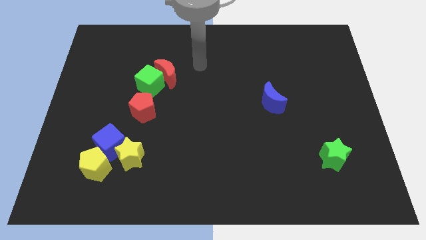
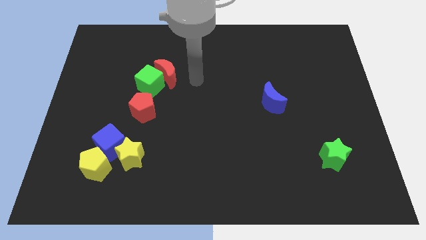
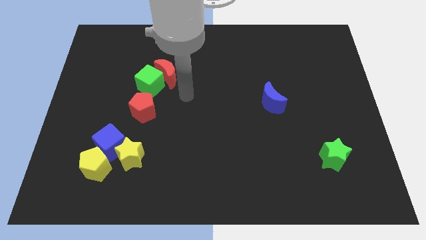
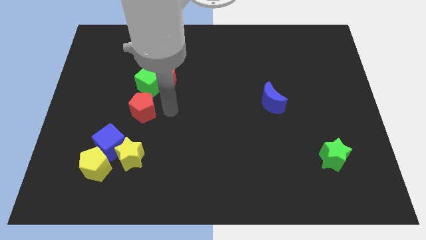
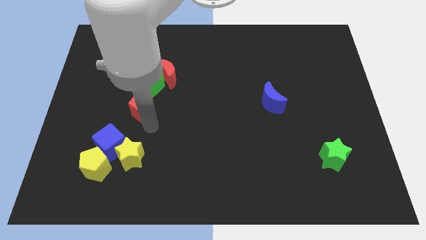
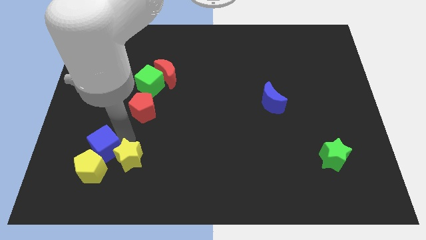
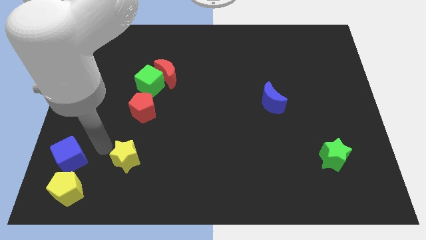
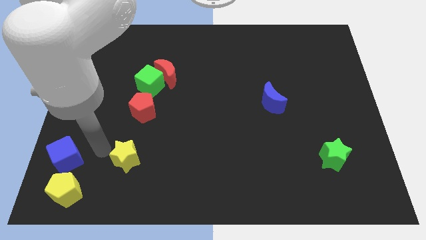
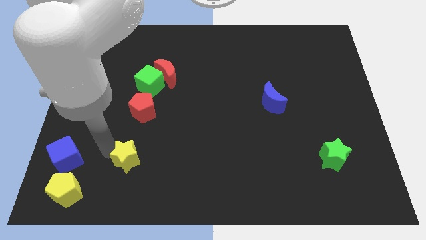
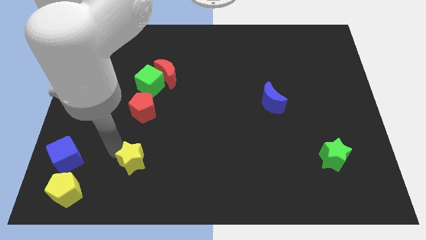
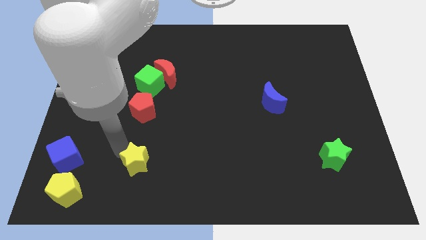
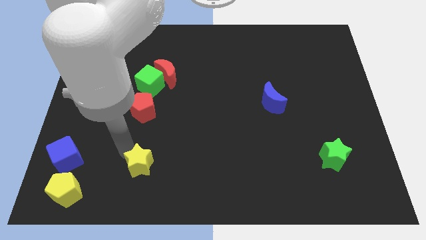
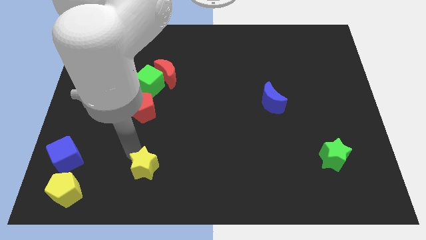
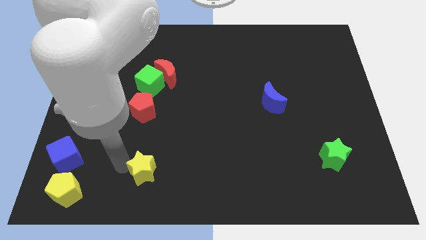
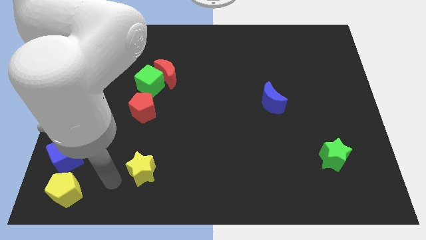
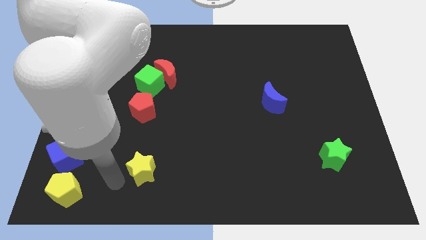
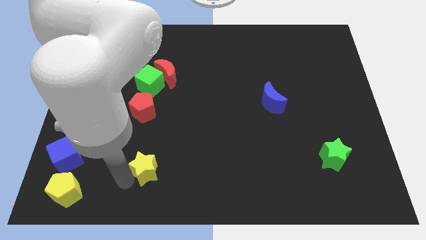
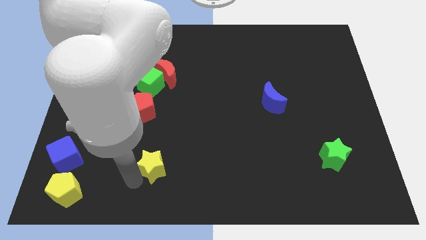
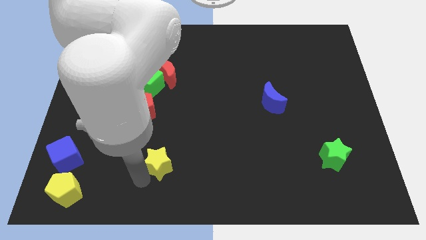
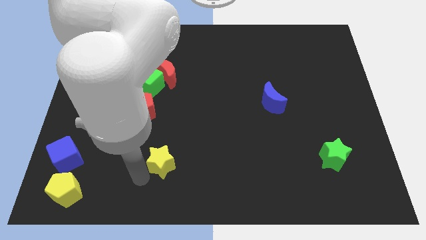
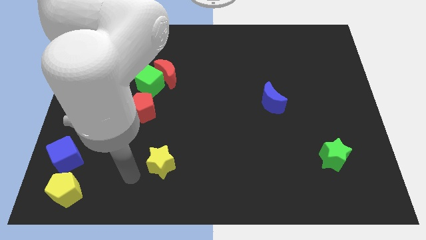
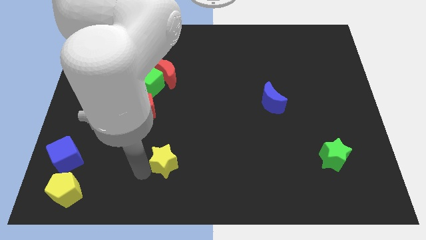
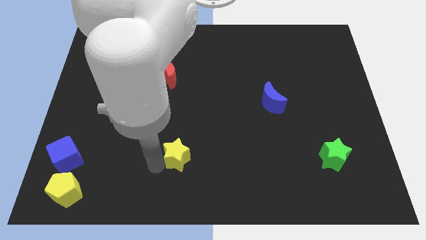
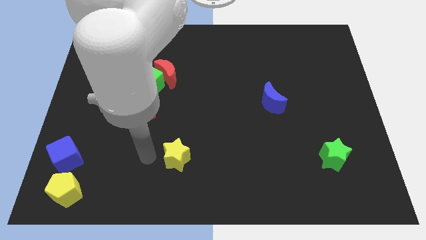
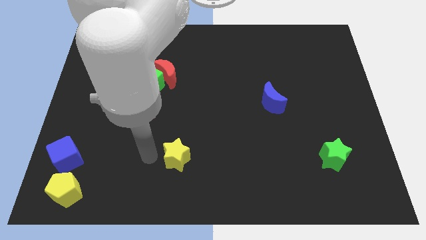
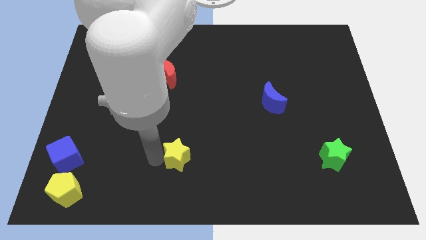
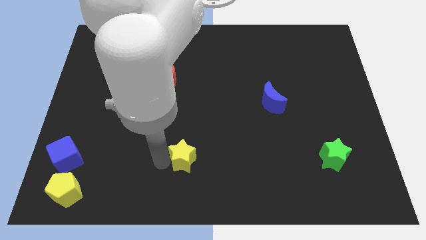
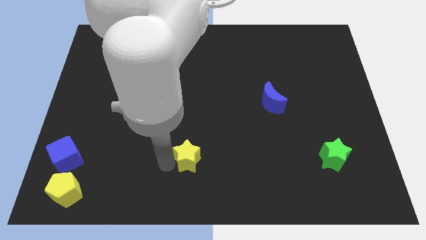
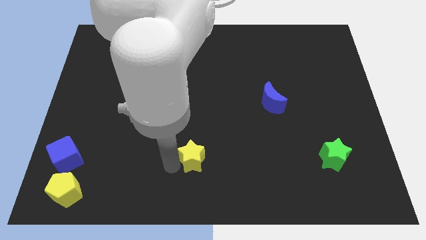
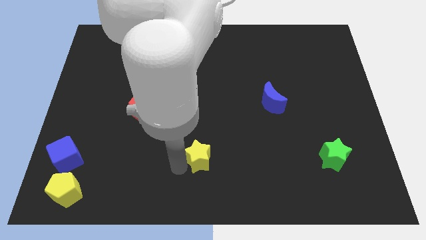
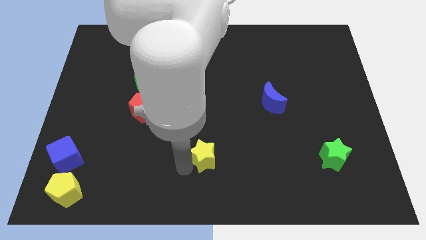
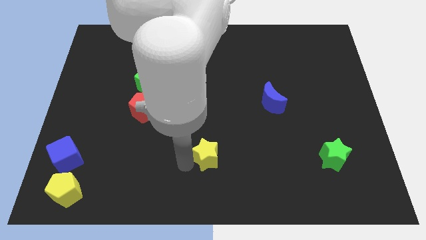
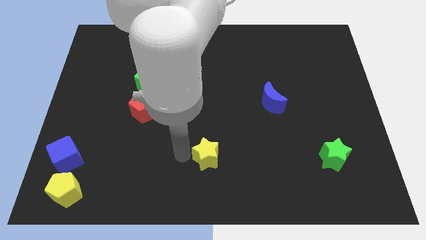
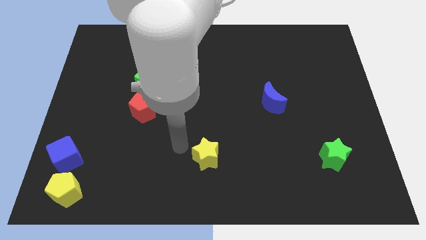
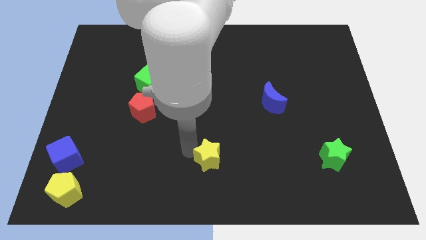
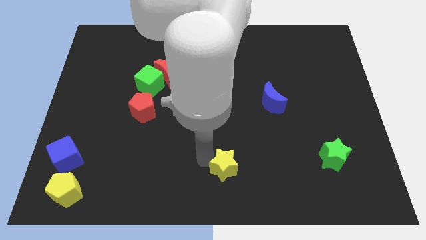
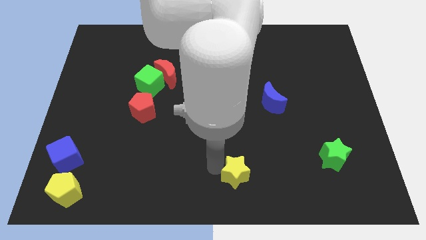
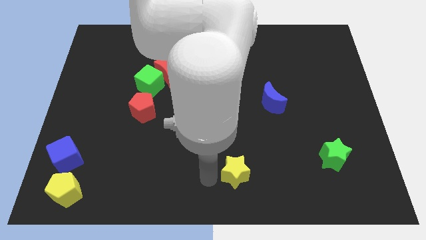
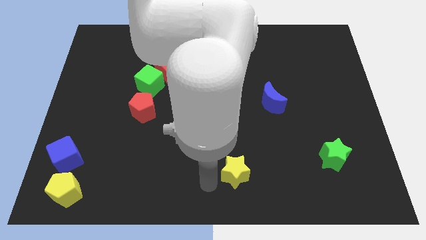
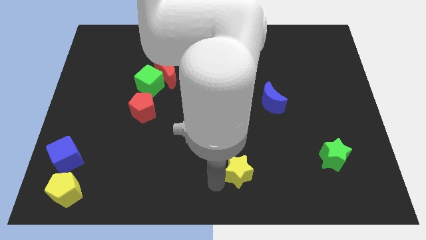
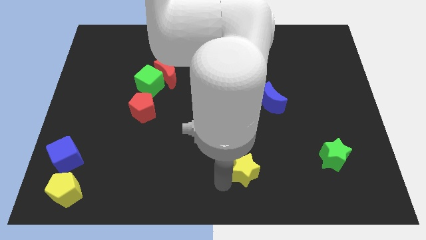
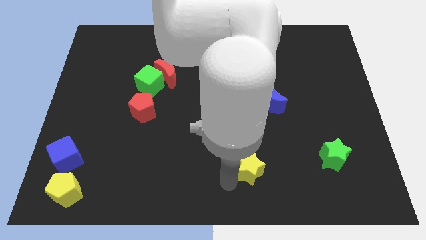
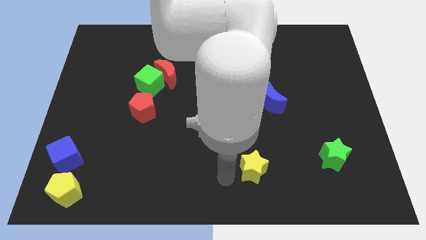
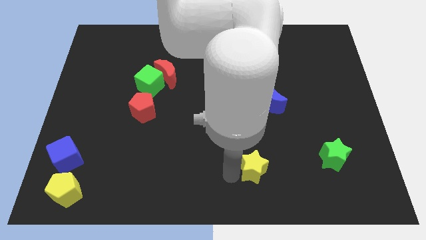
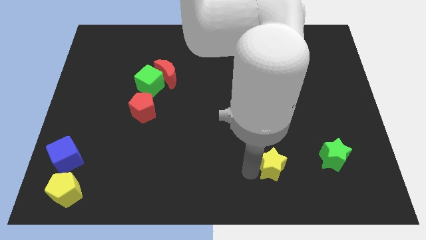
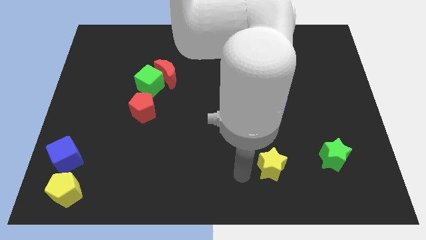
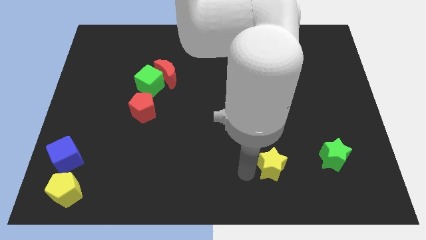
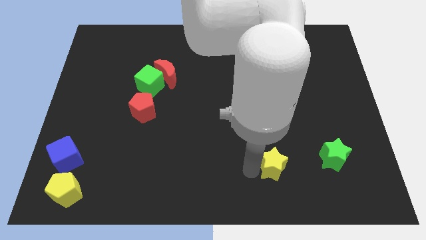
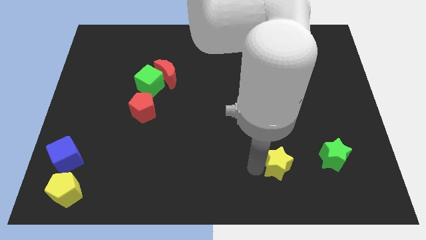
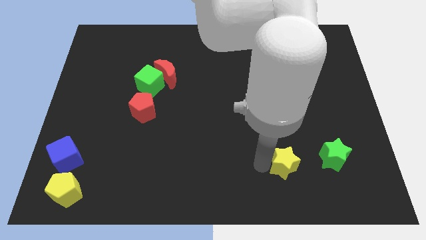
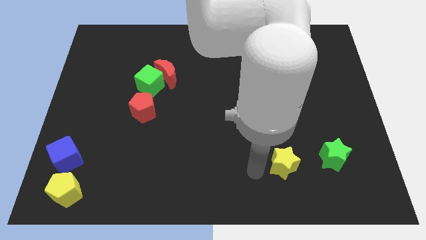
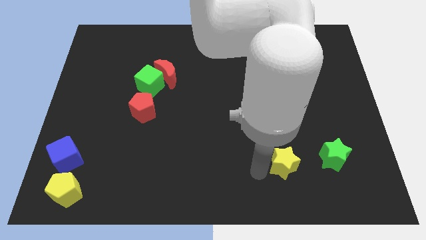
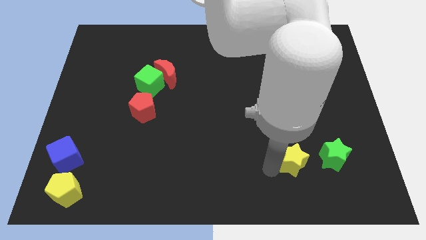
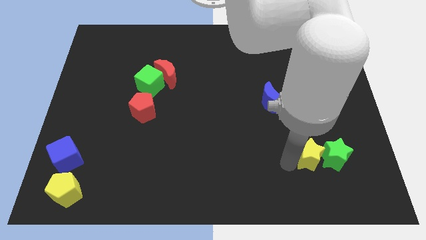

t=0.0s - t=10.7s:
slide the yellow star close to the green star

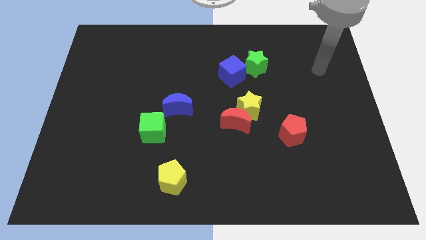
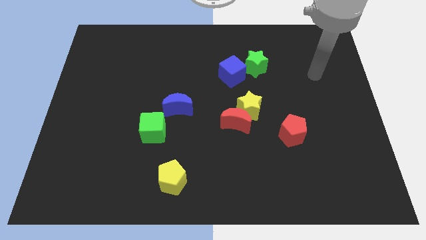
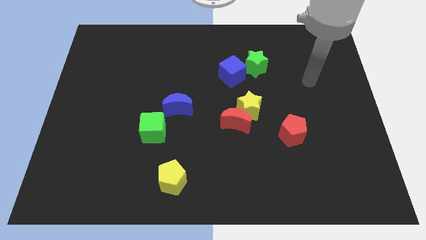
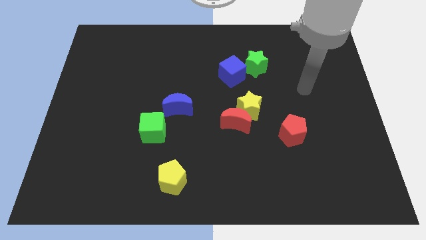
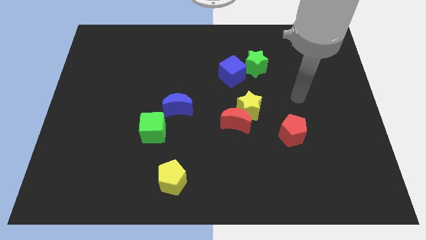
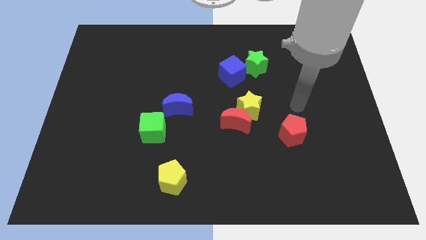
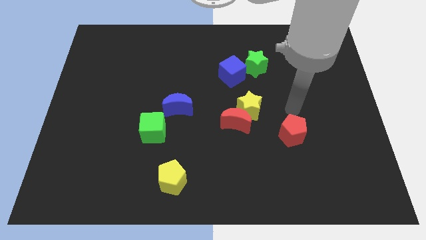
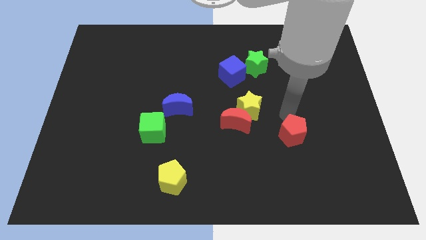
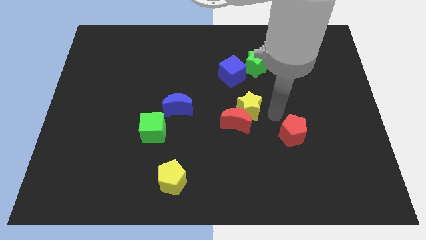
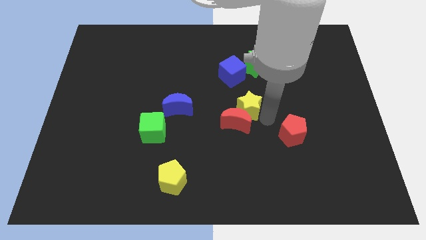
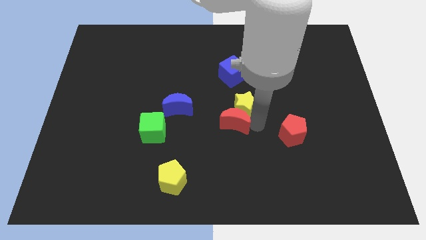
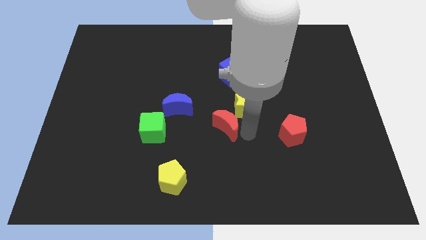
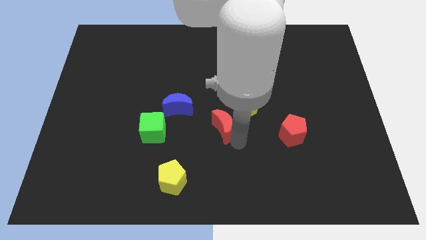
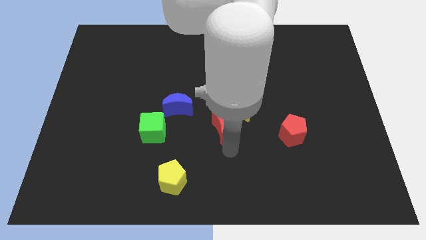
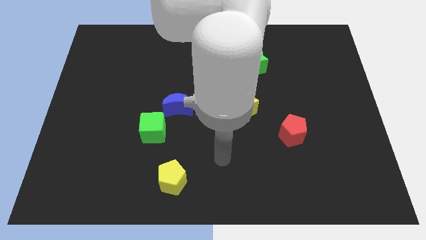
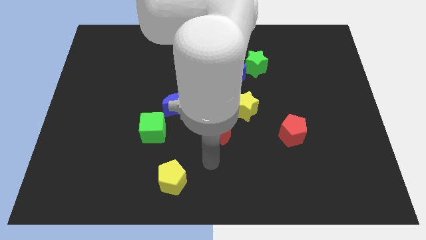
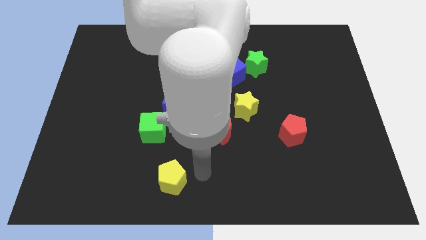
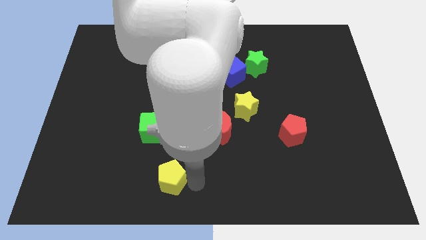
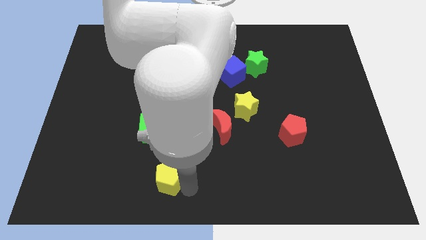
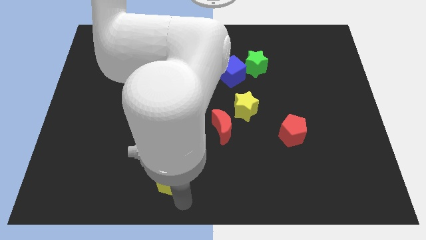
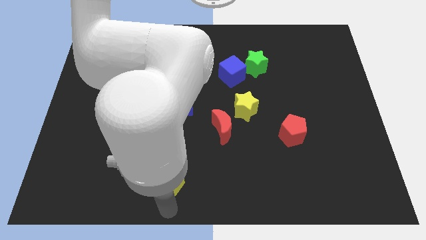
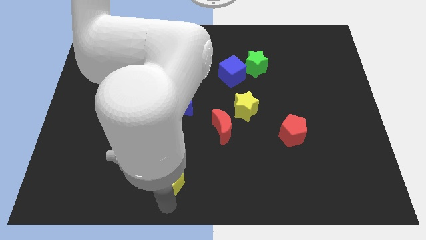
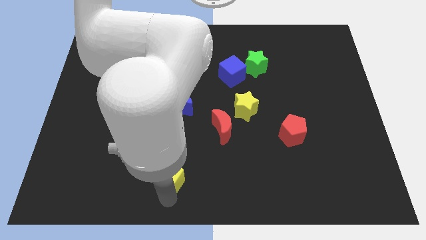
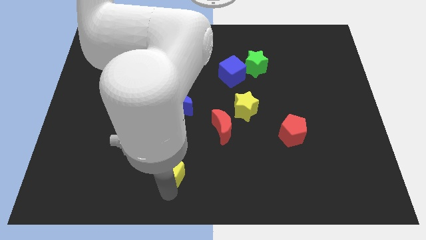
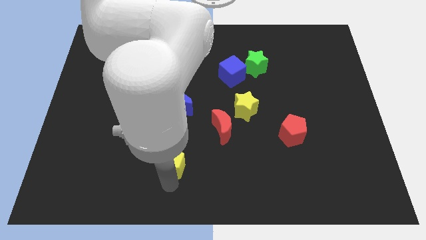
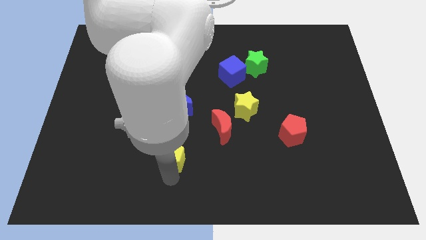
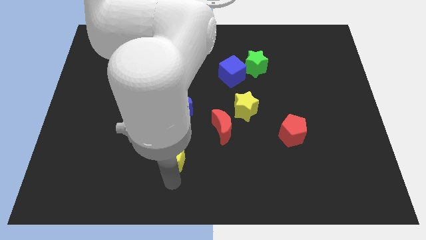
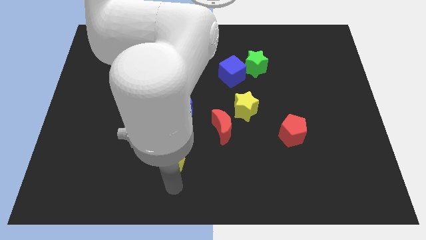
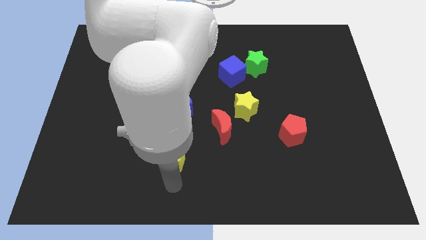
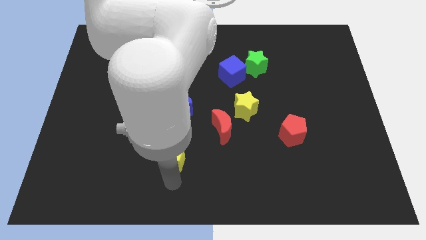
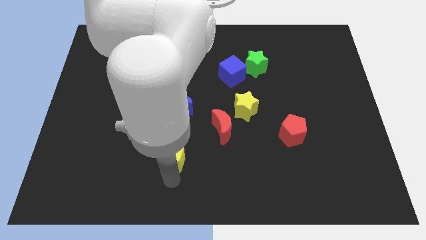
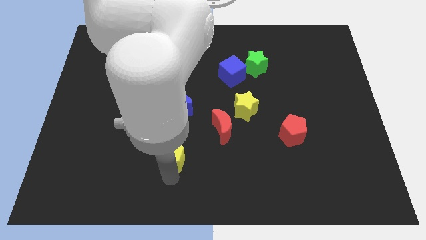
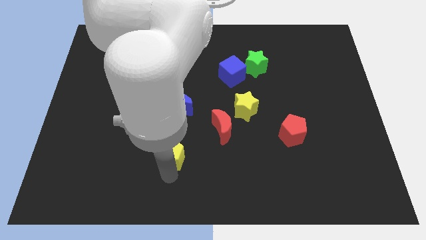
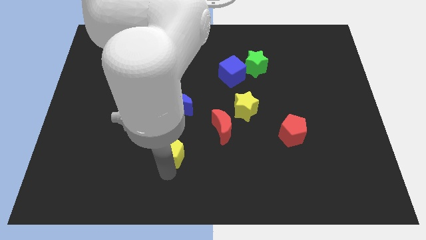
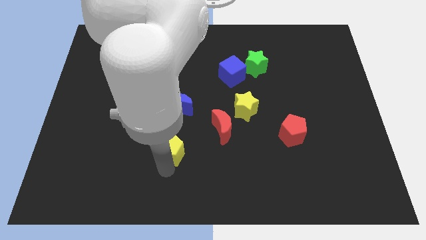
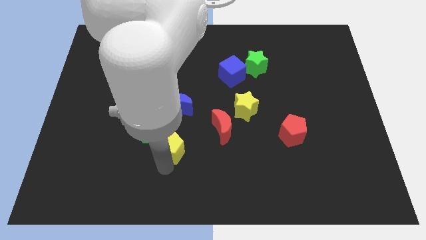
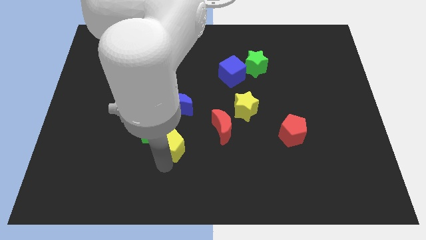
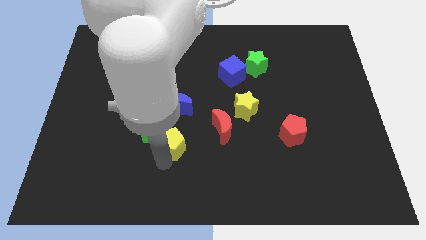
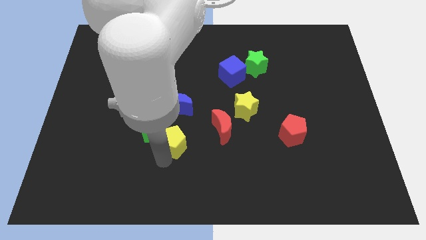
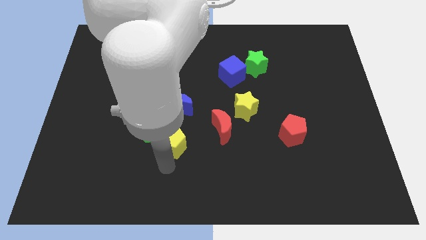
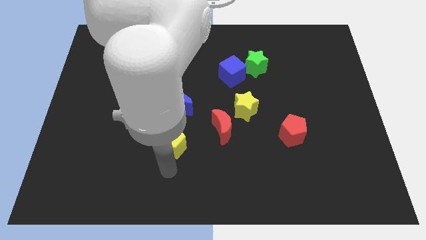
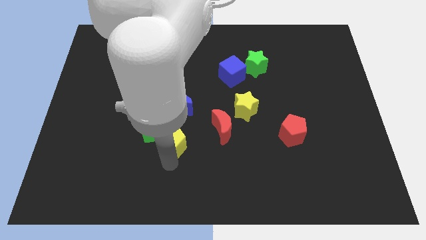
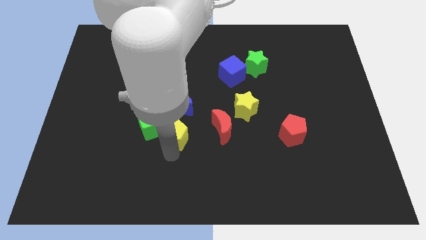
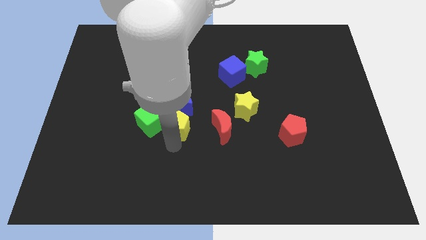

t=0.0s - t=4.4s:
put the yellow pentagon towards the blue moon
